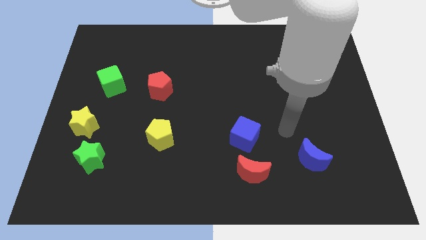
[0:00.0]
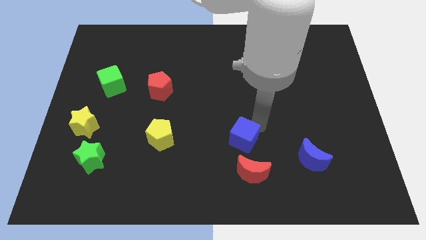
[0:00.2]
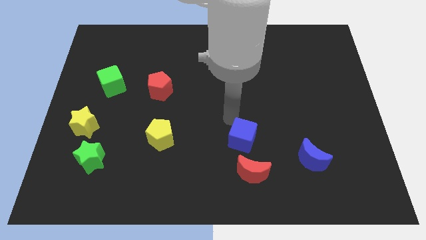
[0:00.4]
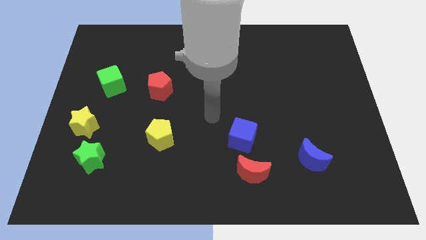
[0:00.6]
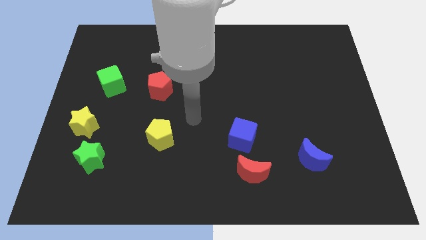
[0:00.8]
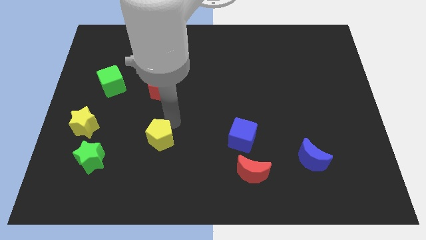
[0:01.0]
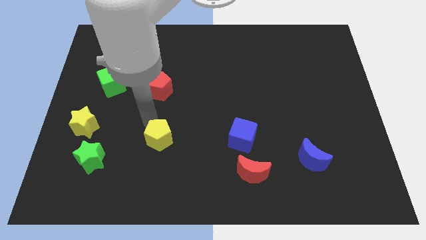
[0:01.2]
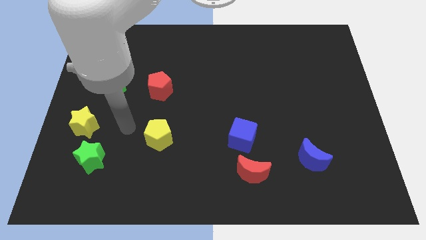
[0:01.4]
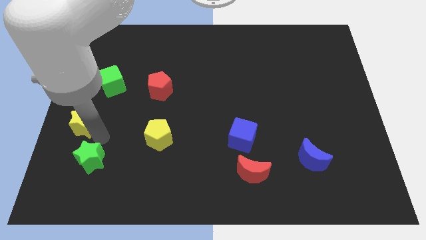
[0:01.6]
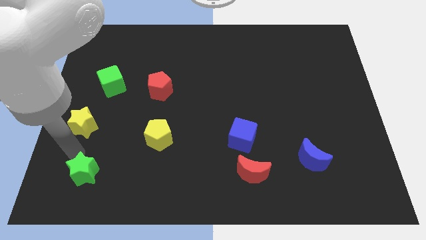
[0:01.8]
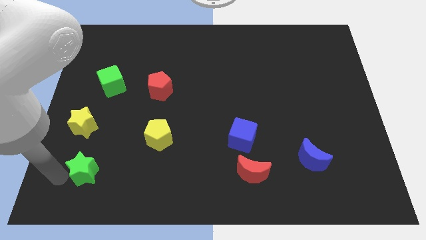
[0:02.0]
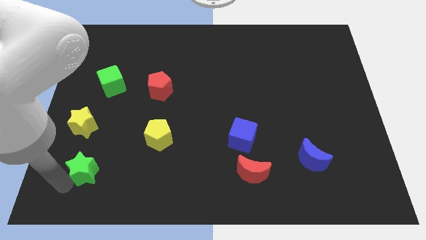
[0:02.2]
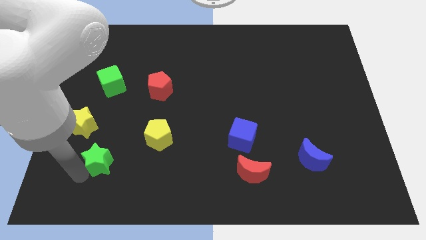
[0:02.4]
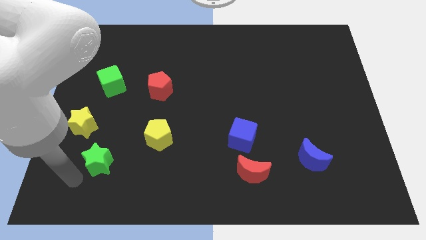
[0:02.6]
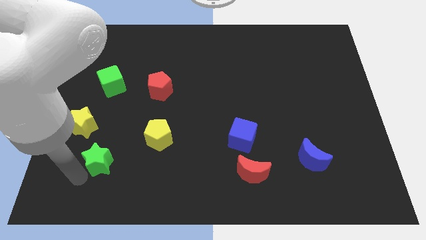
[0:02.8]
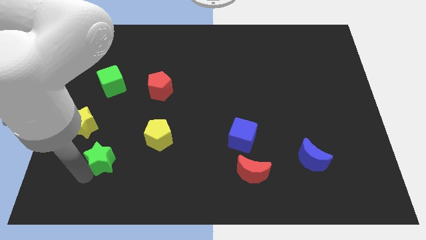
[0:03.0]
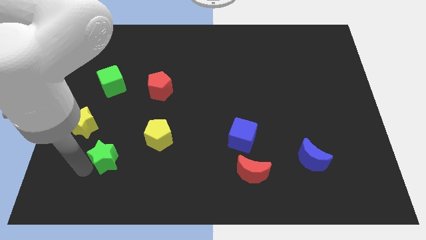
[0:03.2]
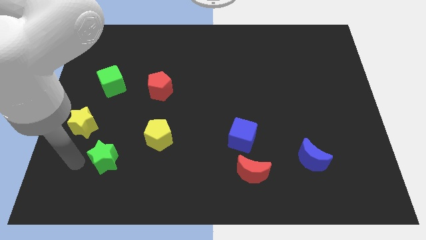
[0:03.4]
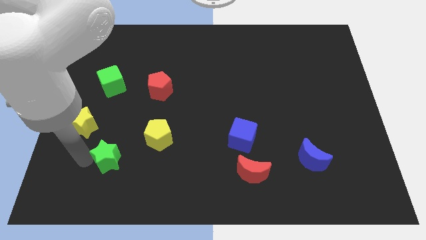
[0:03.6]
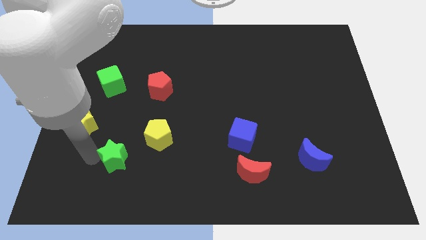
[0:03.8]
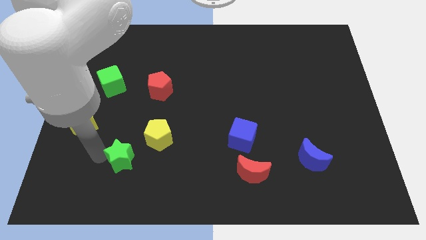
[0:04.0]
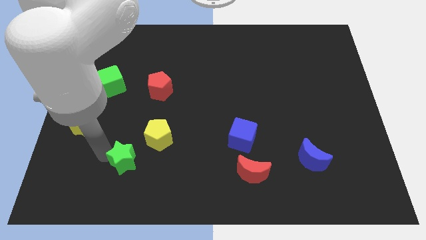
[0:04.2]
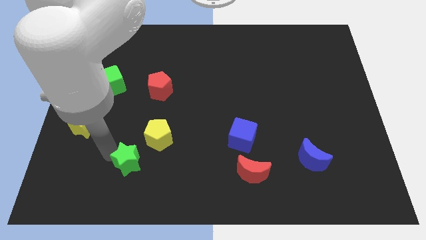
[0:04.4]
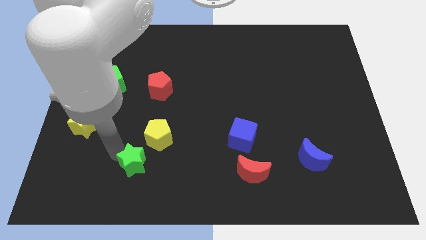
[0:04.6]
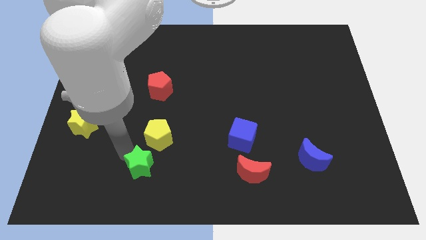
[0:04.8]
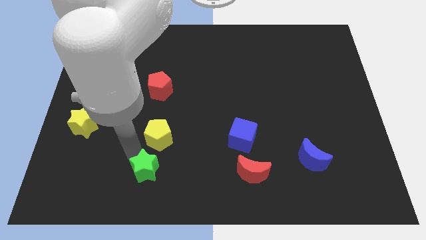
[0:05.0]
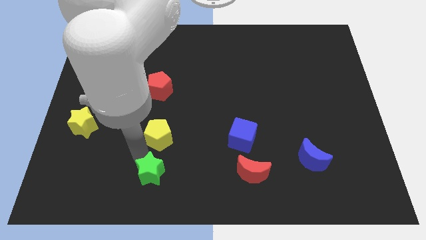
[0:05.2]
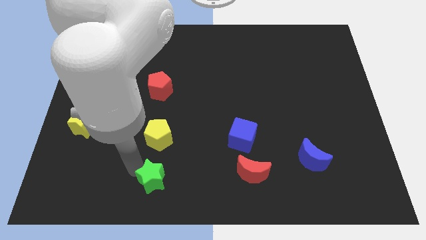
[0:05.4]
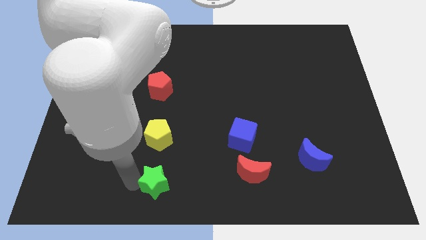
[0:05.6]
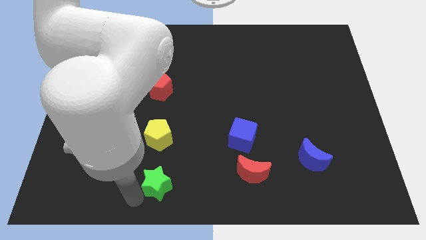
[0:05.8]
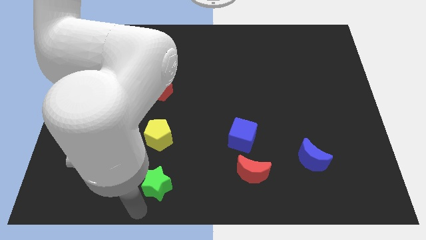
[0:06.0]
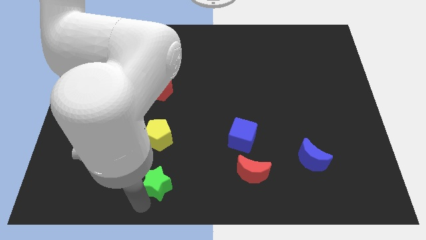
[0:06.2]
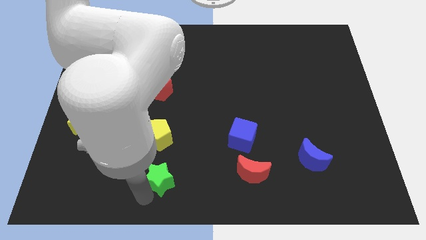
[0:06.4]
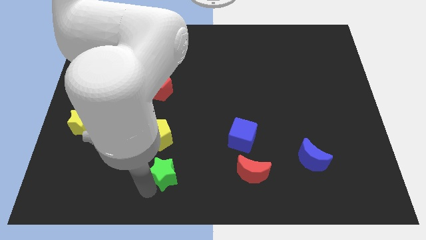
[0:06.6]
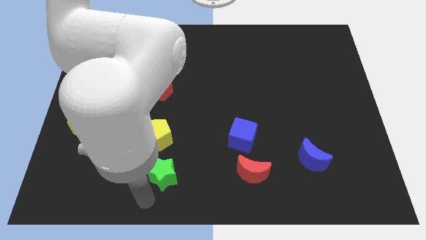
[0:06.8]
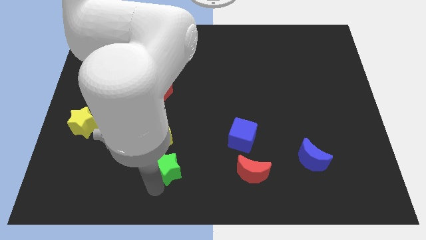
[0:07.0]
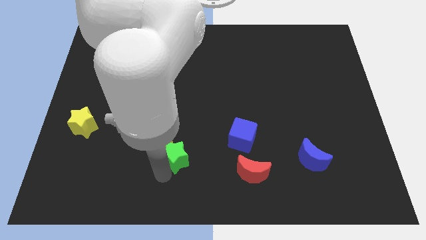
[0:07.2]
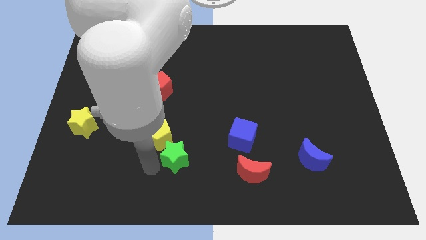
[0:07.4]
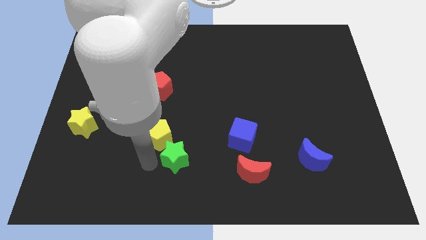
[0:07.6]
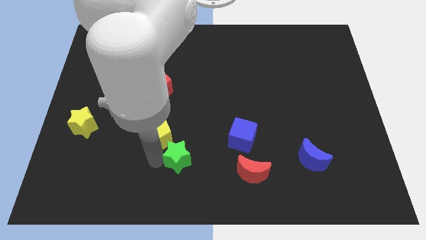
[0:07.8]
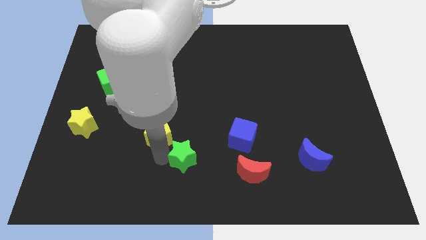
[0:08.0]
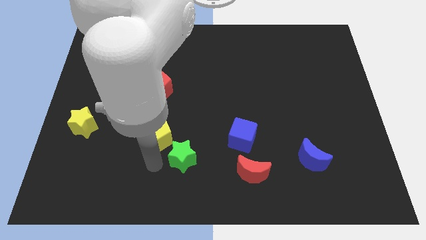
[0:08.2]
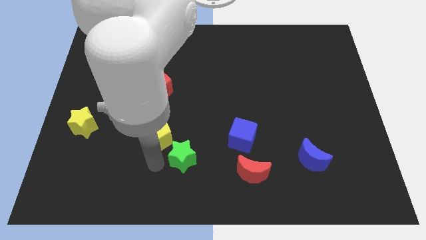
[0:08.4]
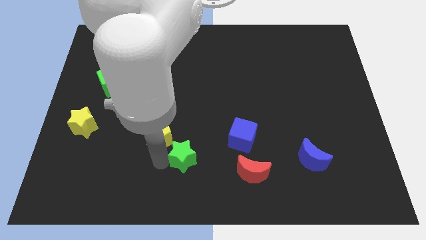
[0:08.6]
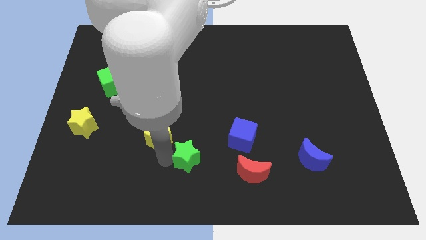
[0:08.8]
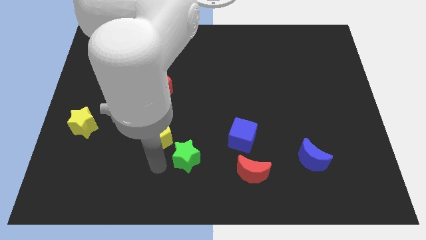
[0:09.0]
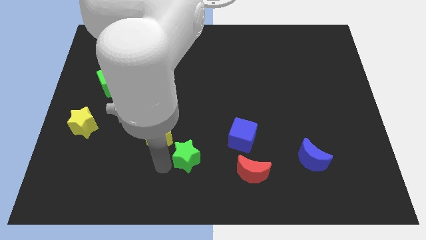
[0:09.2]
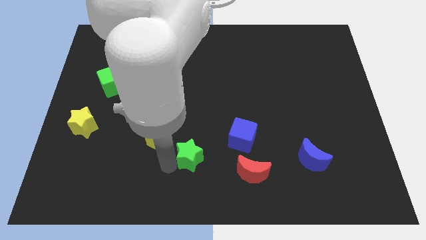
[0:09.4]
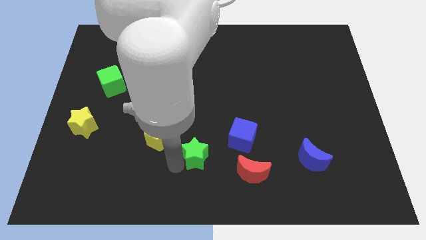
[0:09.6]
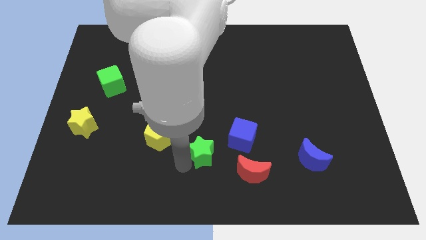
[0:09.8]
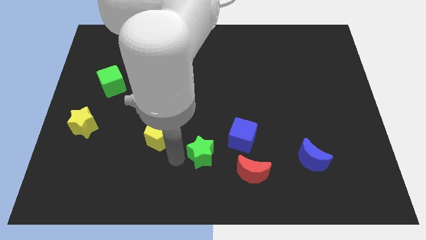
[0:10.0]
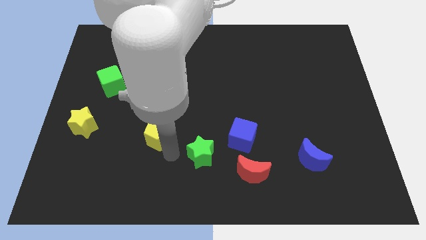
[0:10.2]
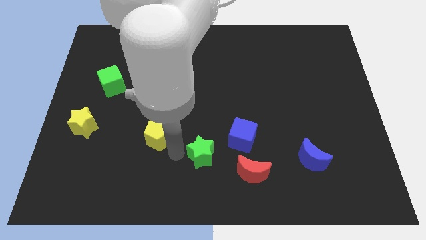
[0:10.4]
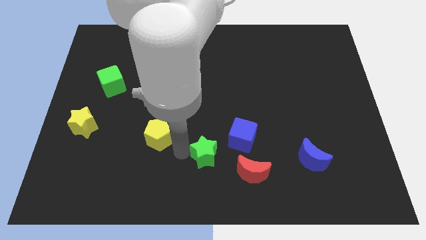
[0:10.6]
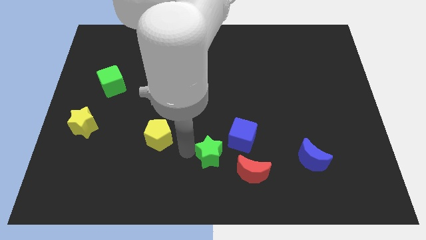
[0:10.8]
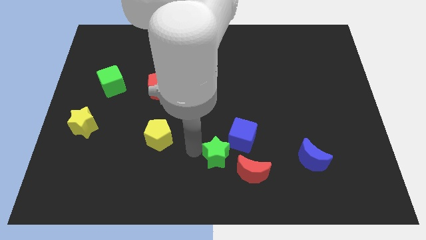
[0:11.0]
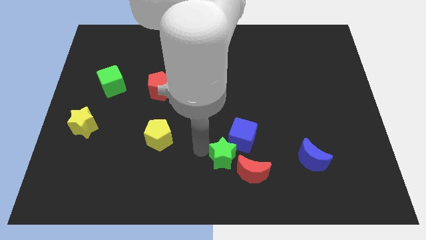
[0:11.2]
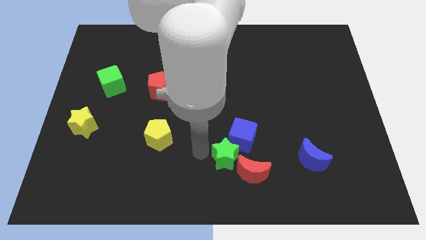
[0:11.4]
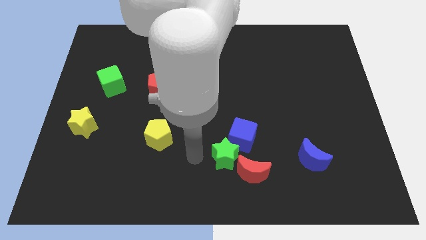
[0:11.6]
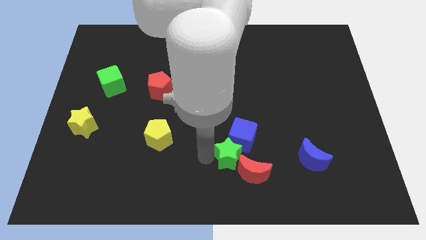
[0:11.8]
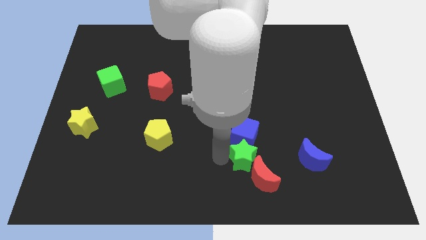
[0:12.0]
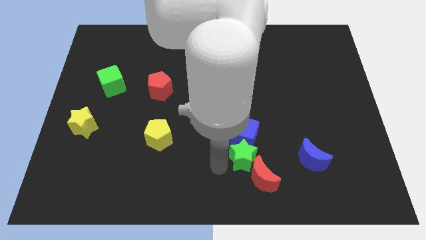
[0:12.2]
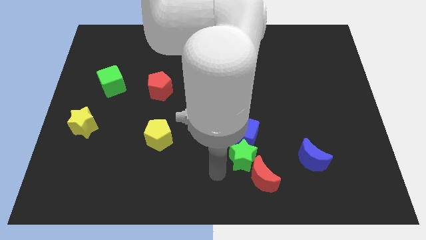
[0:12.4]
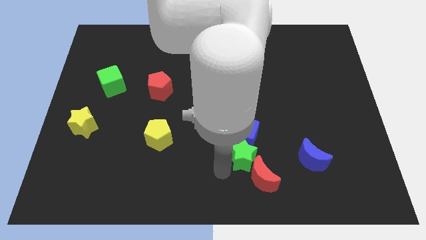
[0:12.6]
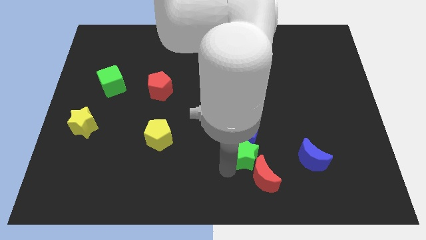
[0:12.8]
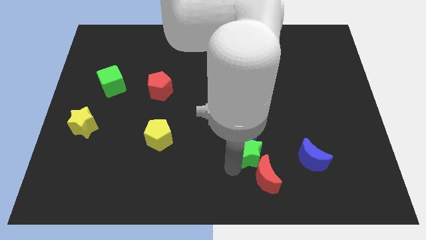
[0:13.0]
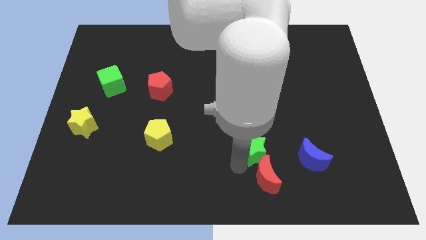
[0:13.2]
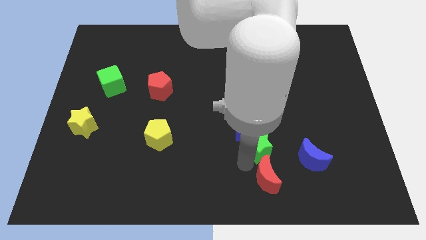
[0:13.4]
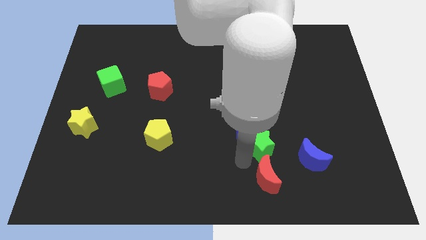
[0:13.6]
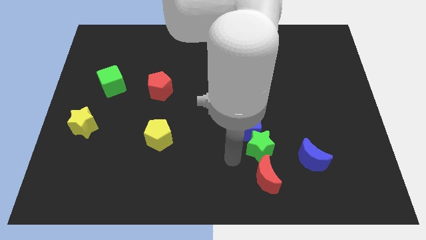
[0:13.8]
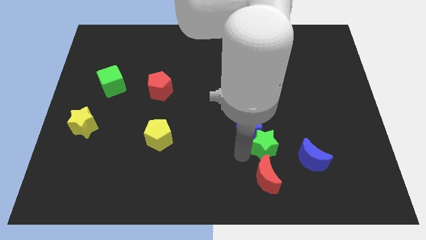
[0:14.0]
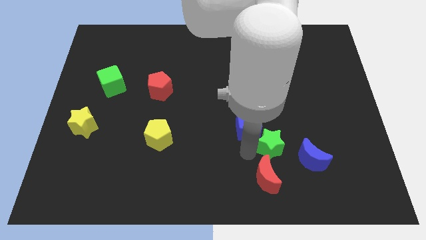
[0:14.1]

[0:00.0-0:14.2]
slide the green star to the right side of the blue cube
